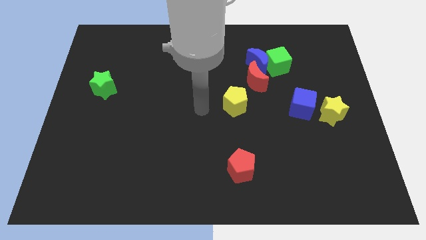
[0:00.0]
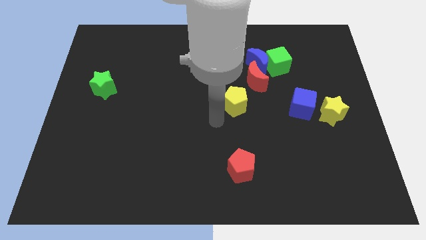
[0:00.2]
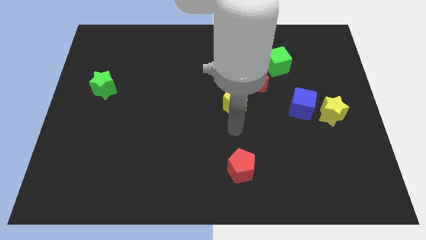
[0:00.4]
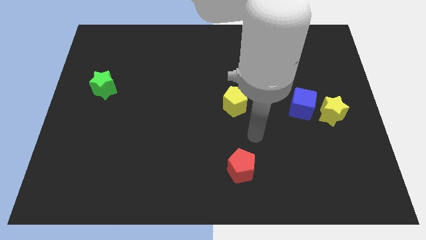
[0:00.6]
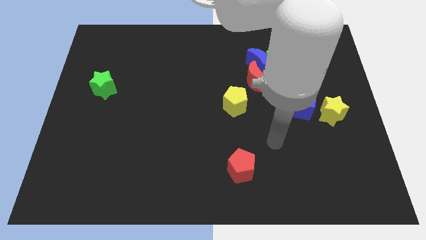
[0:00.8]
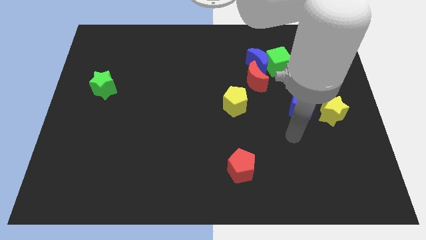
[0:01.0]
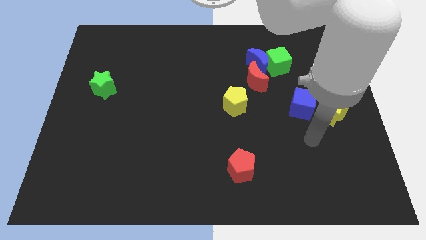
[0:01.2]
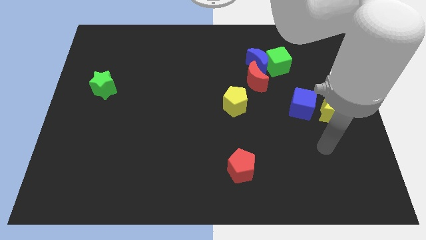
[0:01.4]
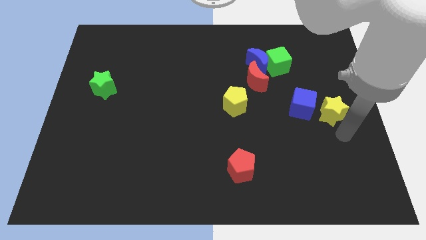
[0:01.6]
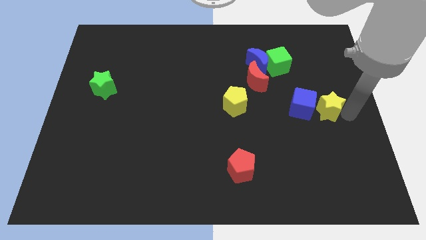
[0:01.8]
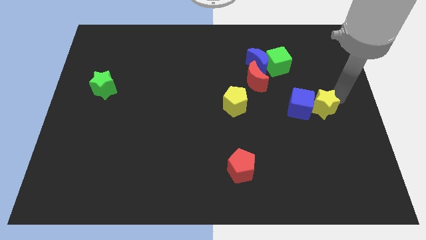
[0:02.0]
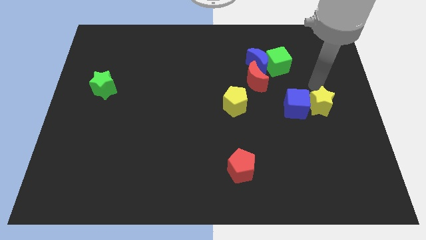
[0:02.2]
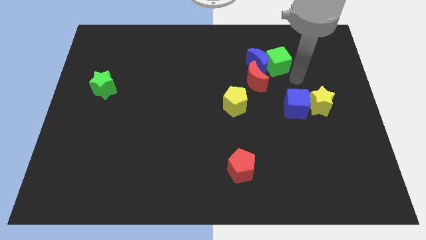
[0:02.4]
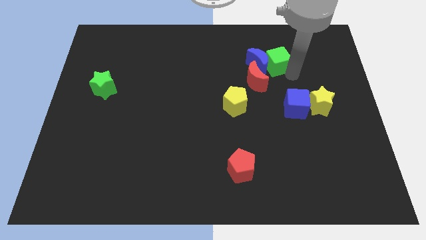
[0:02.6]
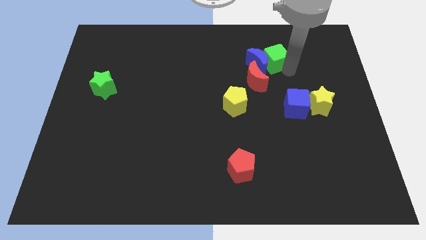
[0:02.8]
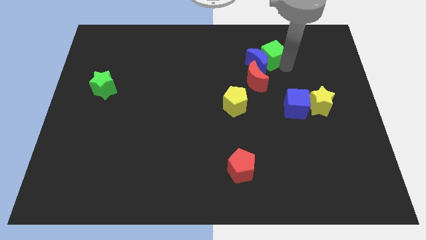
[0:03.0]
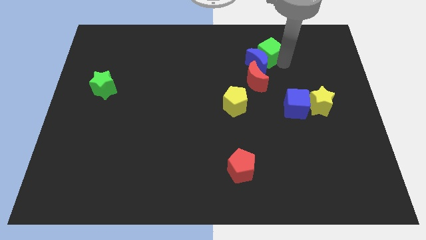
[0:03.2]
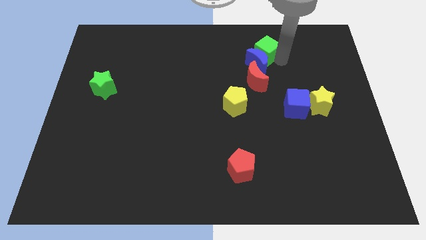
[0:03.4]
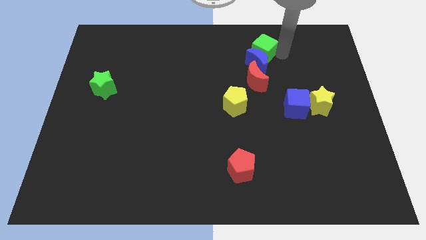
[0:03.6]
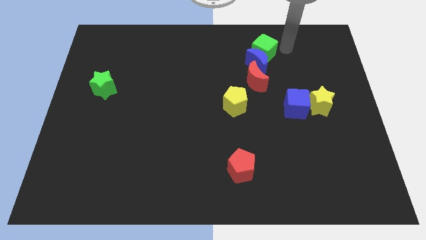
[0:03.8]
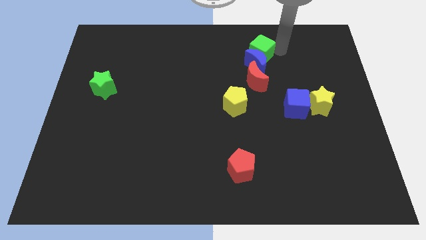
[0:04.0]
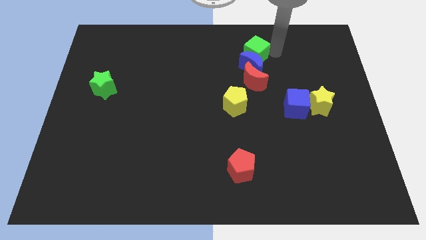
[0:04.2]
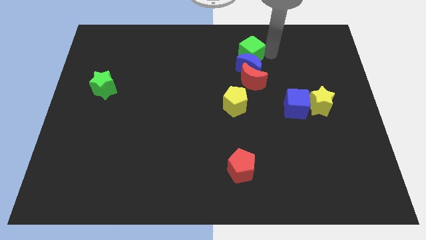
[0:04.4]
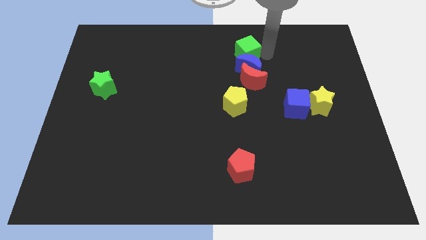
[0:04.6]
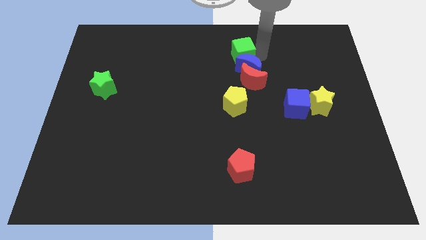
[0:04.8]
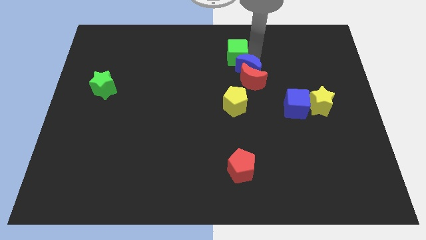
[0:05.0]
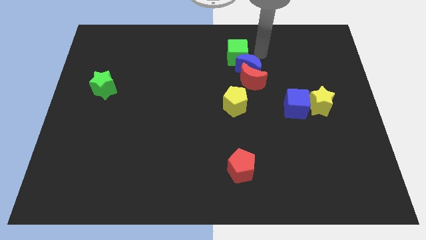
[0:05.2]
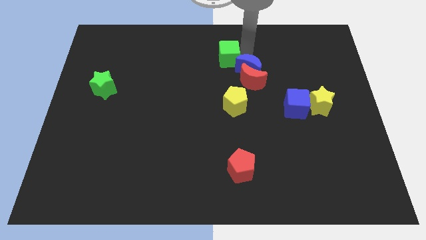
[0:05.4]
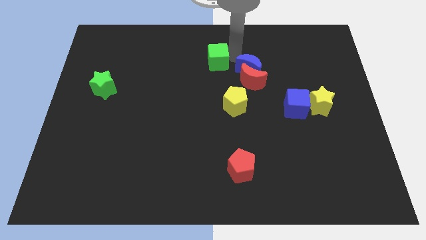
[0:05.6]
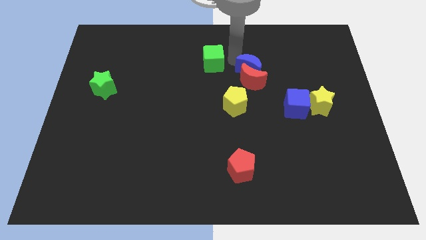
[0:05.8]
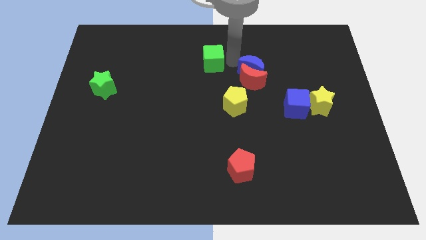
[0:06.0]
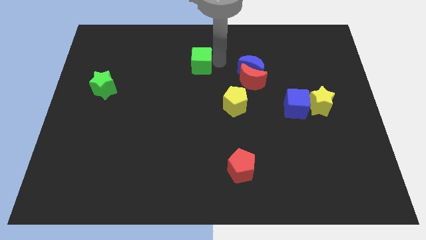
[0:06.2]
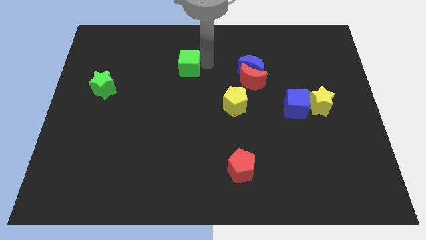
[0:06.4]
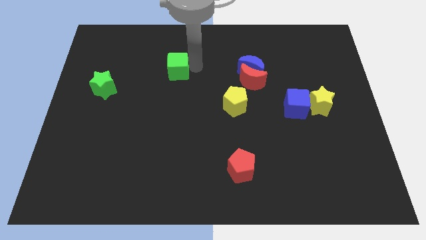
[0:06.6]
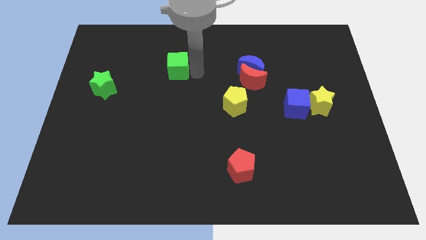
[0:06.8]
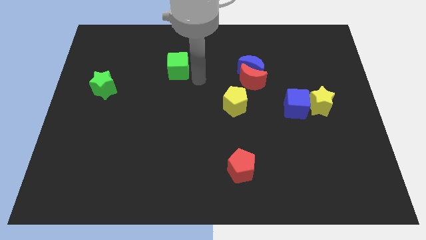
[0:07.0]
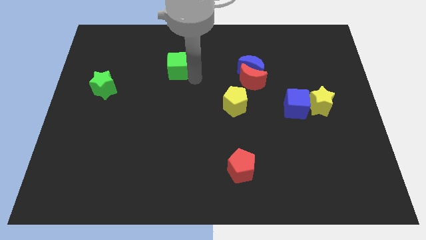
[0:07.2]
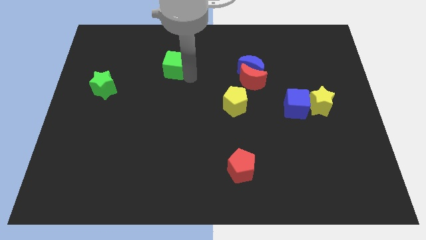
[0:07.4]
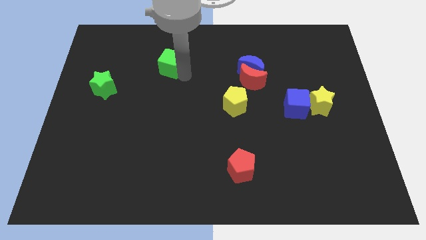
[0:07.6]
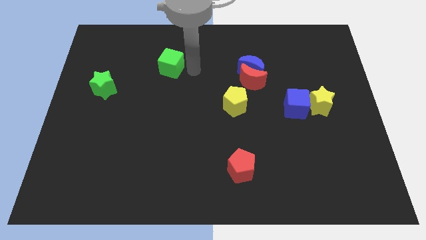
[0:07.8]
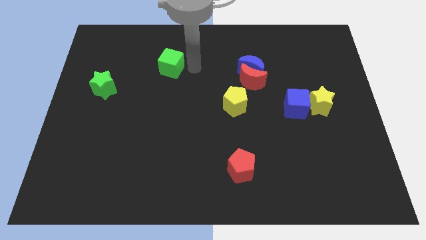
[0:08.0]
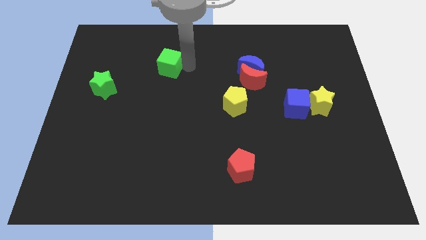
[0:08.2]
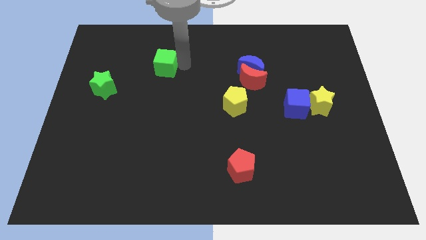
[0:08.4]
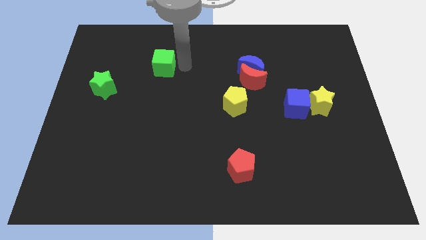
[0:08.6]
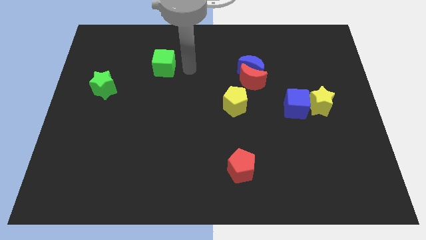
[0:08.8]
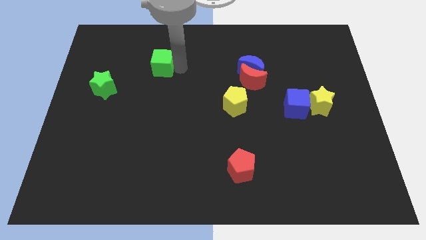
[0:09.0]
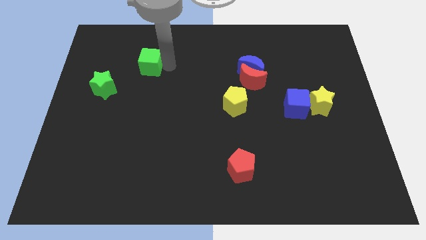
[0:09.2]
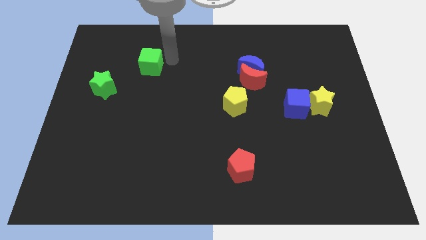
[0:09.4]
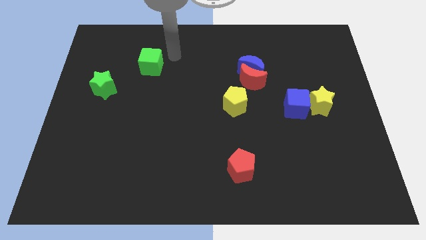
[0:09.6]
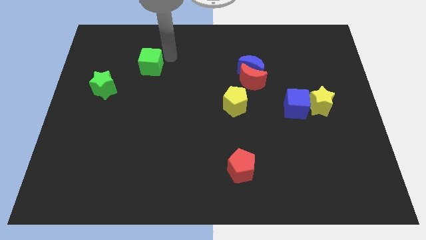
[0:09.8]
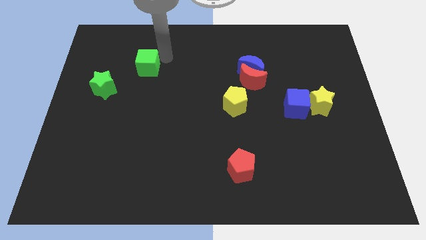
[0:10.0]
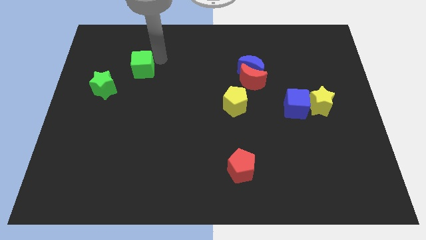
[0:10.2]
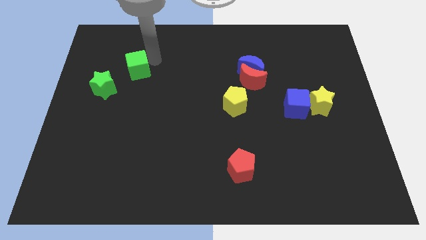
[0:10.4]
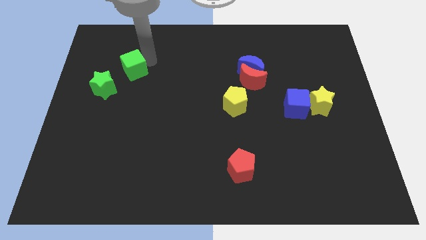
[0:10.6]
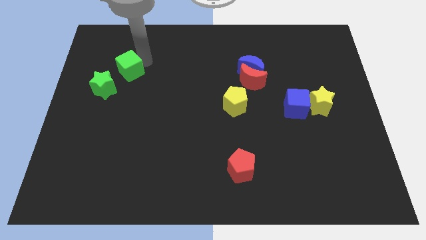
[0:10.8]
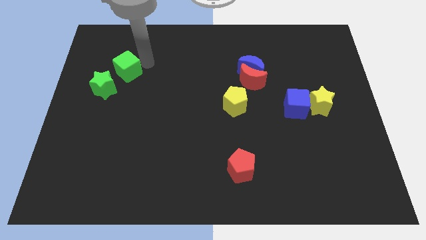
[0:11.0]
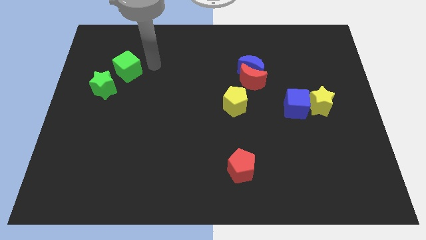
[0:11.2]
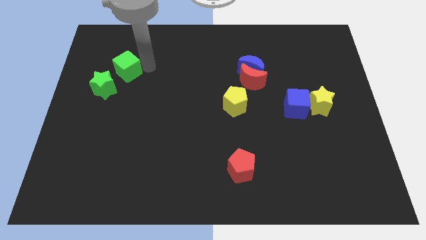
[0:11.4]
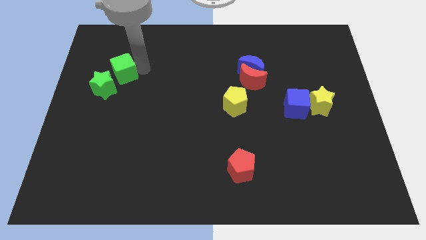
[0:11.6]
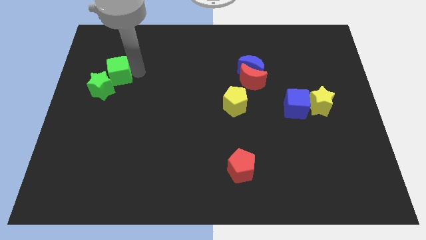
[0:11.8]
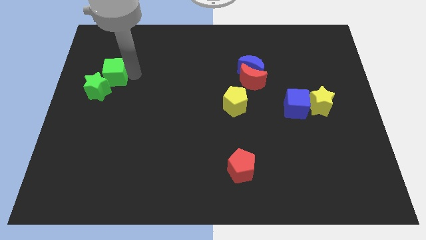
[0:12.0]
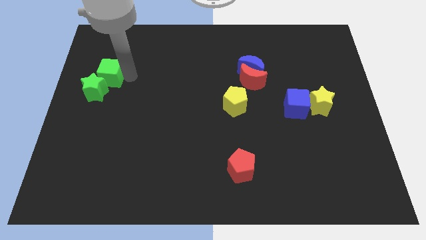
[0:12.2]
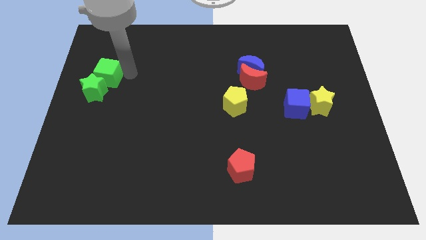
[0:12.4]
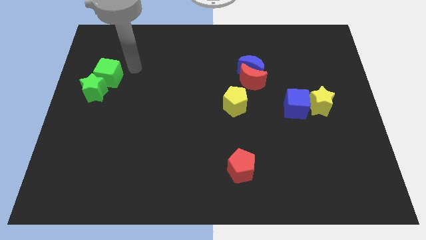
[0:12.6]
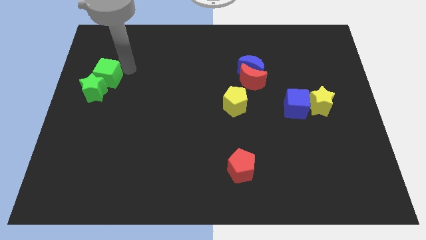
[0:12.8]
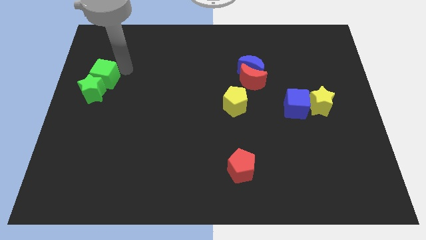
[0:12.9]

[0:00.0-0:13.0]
slide the green cube to the center left
